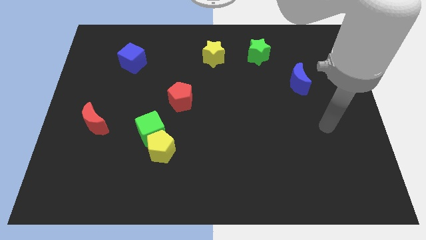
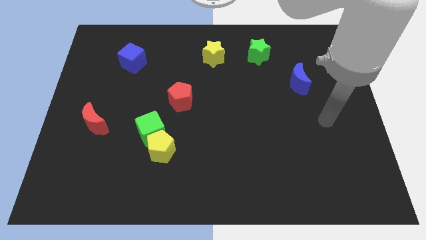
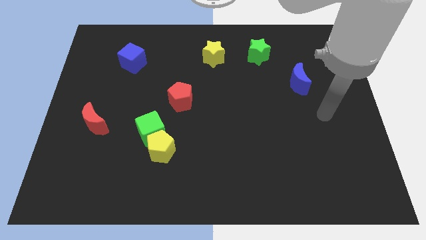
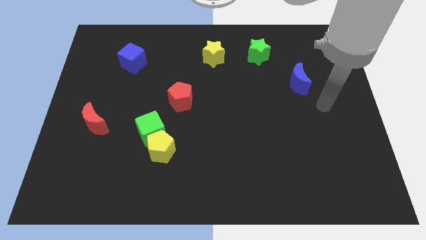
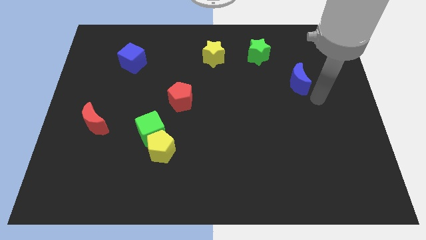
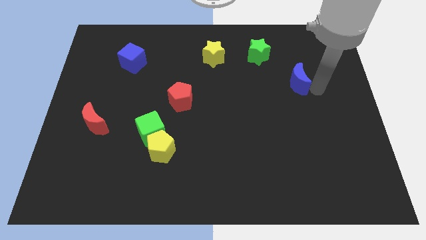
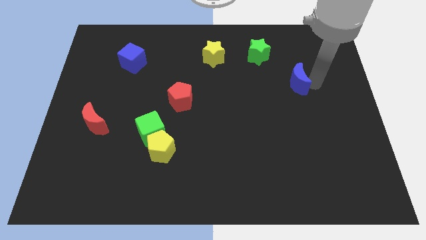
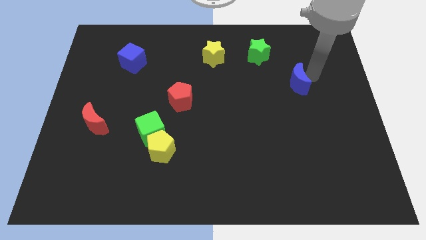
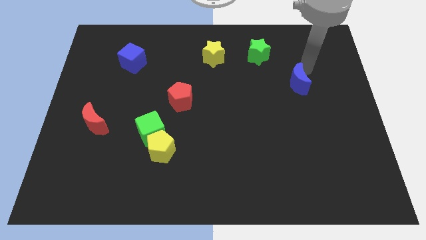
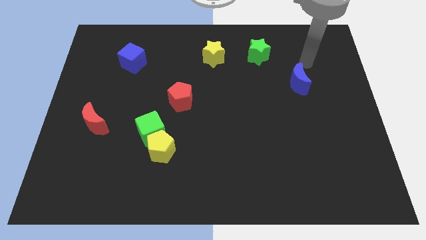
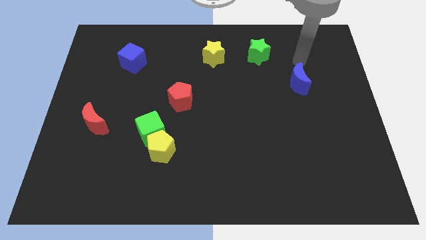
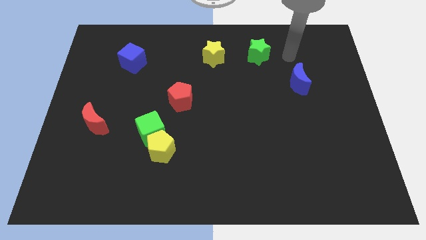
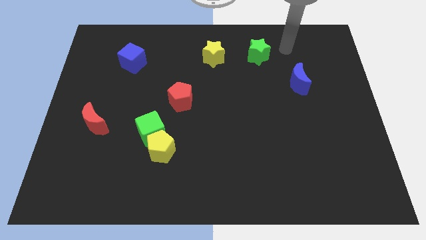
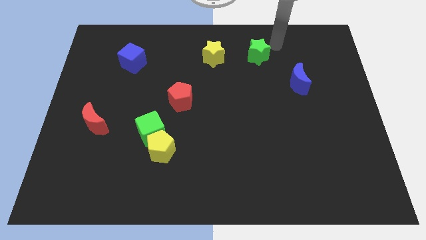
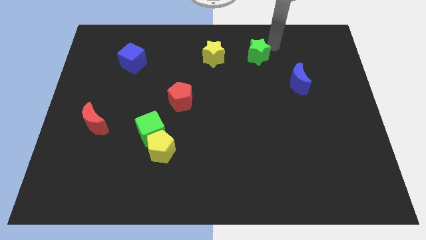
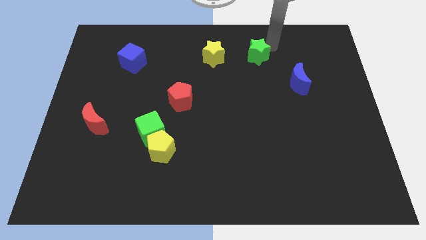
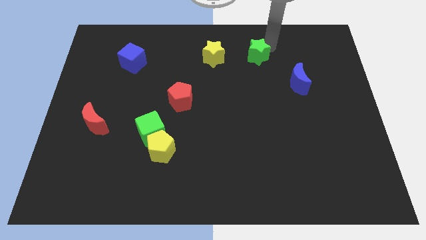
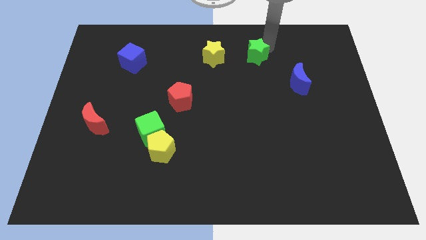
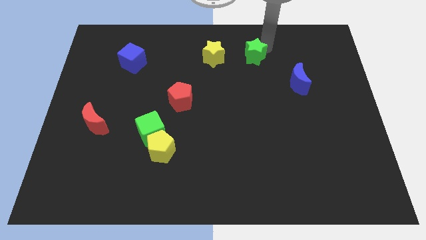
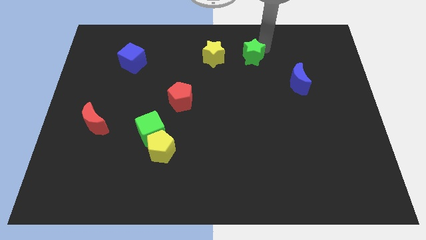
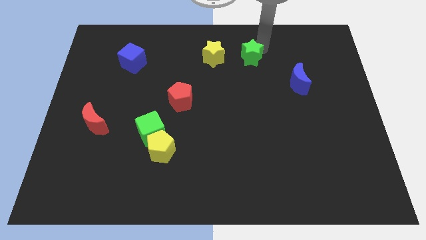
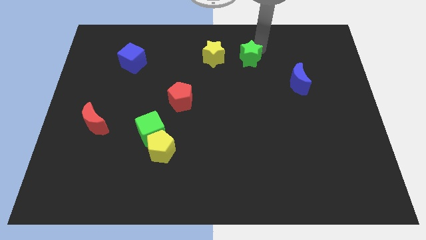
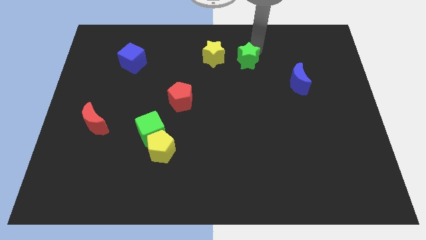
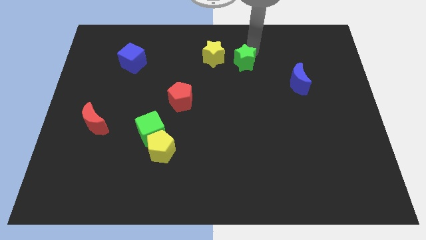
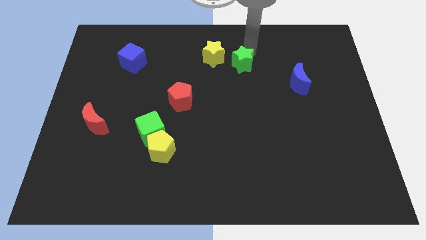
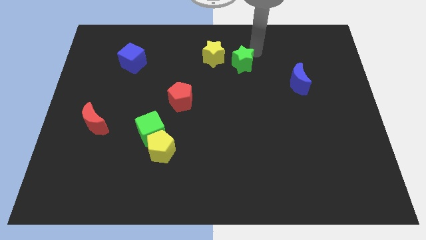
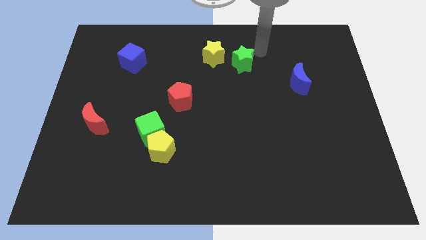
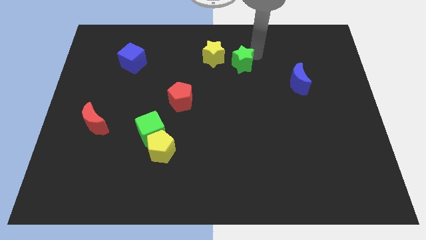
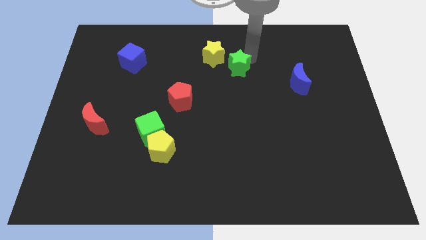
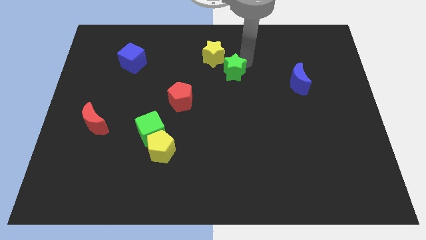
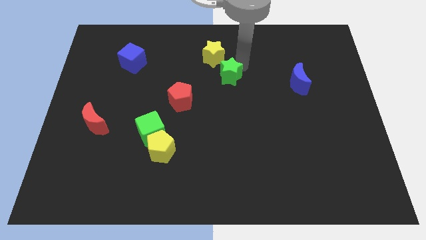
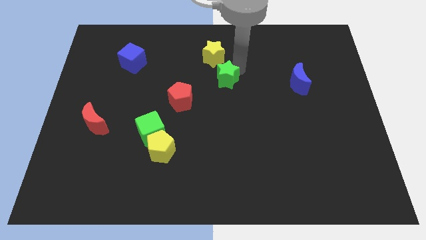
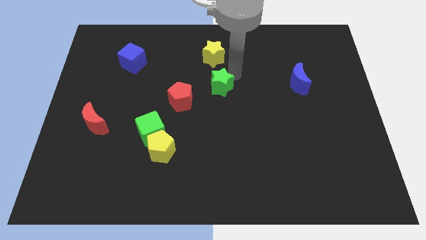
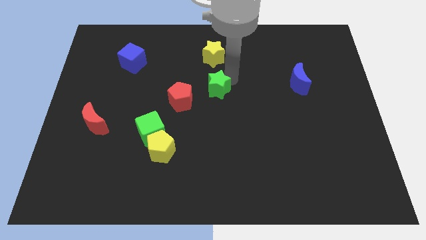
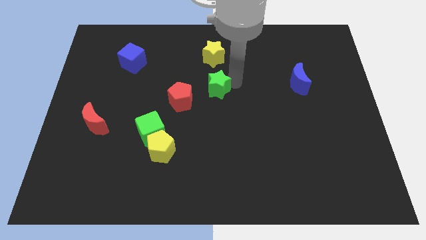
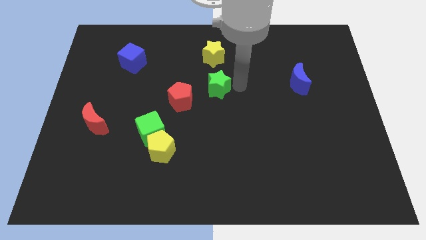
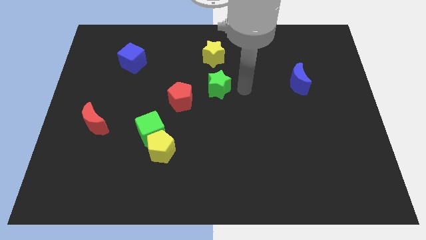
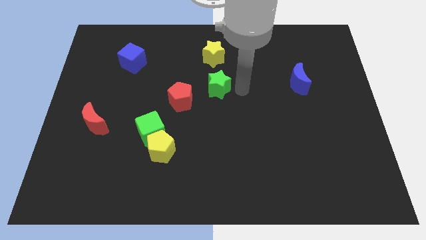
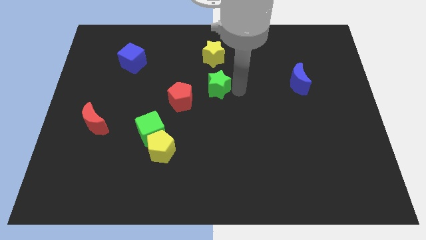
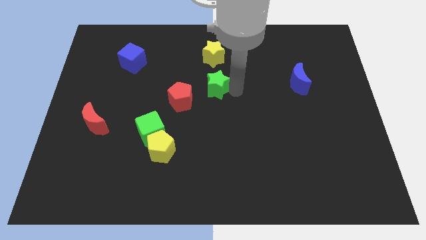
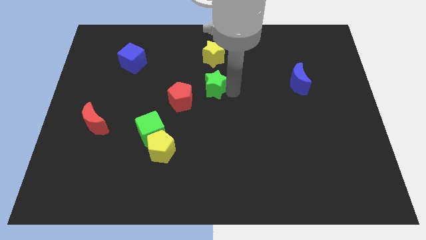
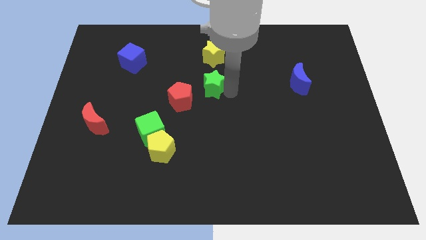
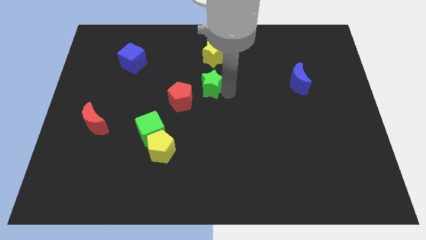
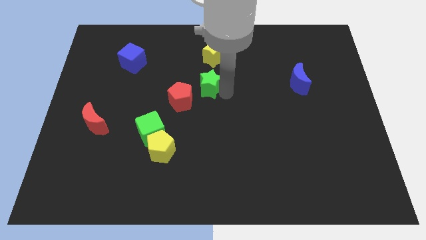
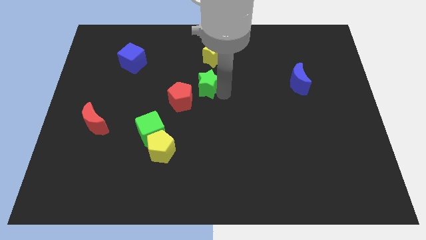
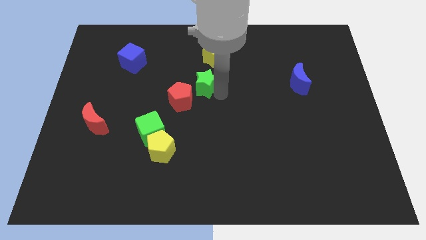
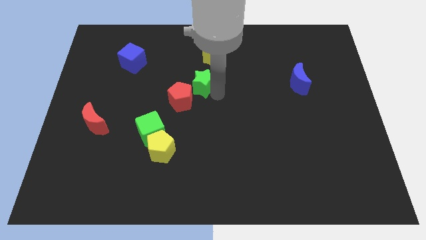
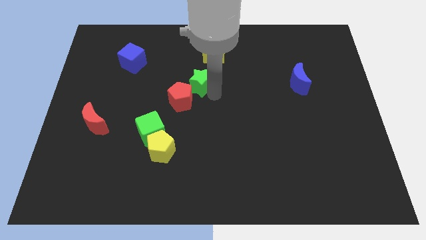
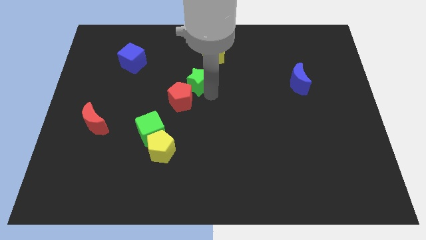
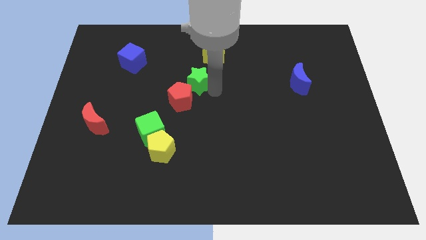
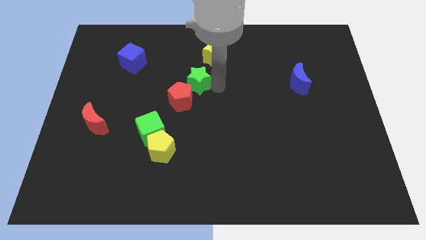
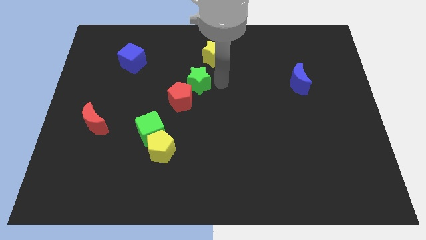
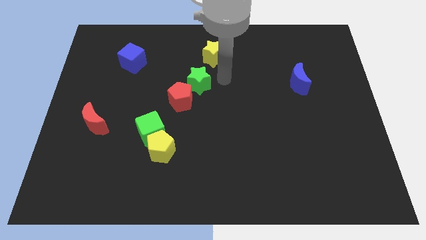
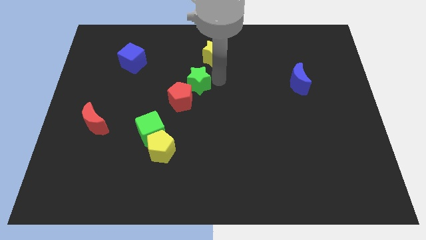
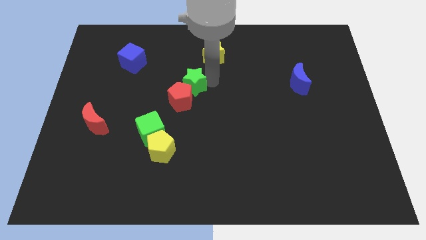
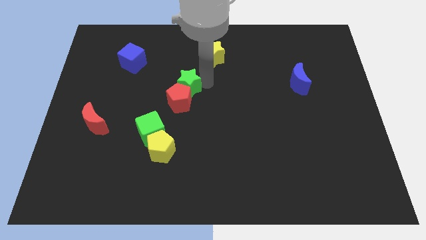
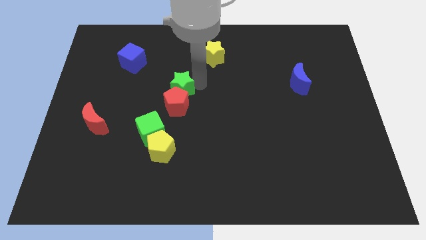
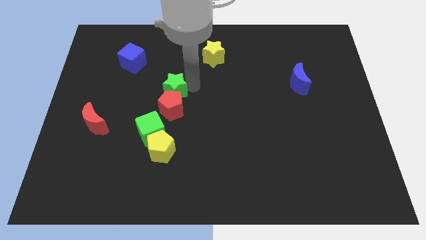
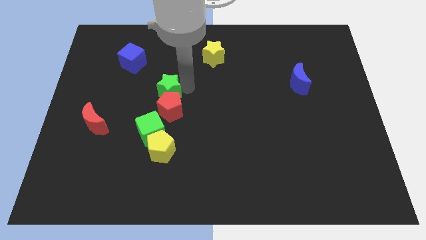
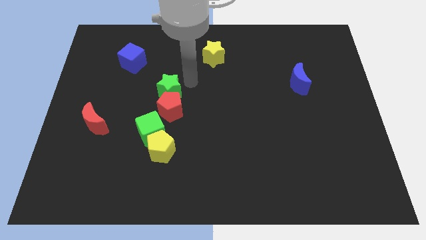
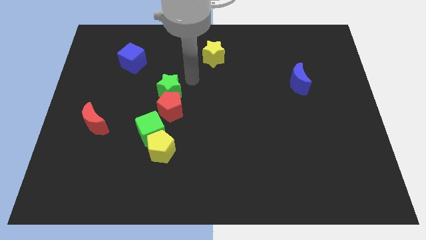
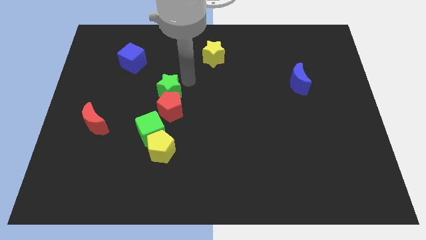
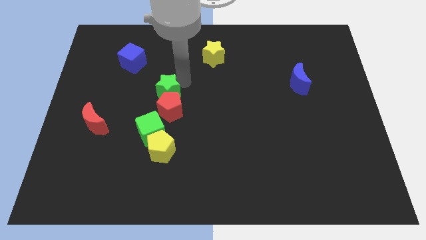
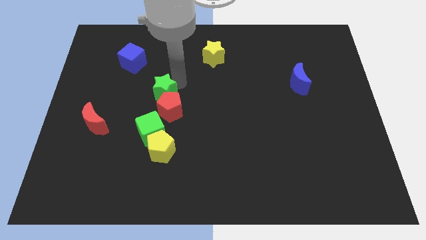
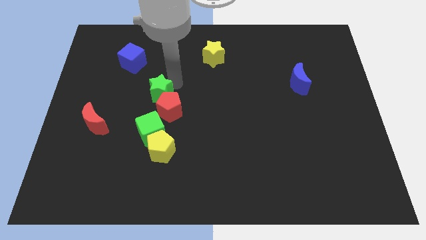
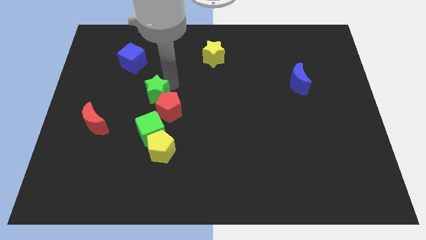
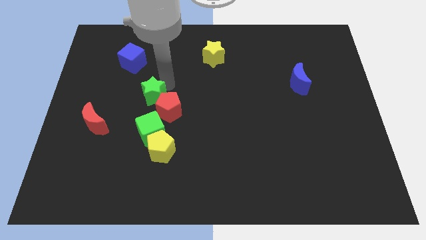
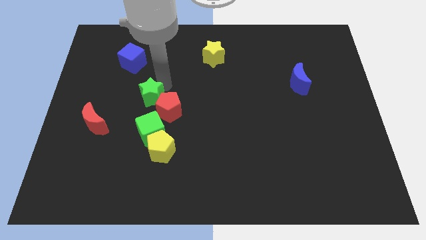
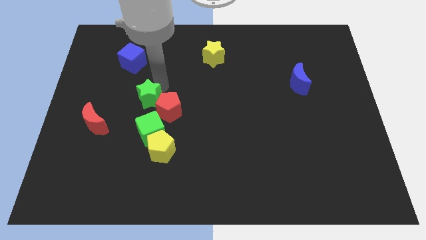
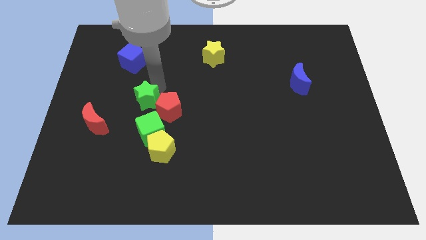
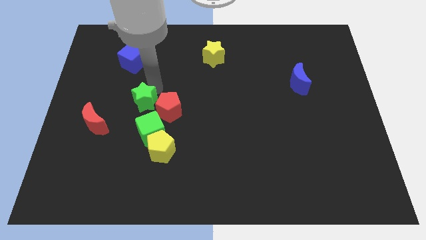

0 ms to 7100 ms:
push the green star to the top left side of the green cube

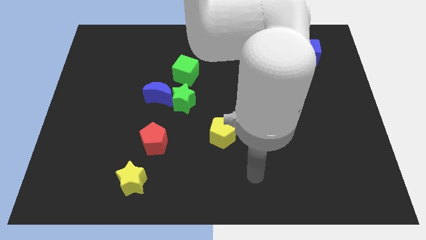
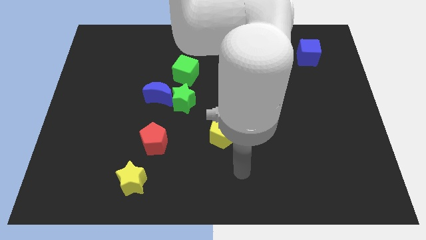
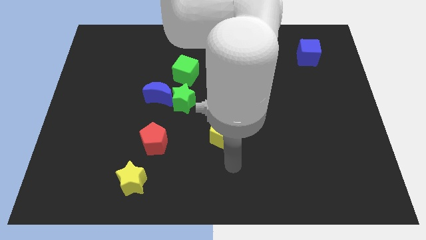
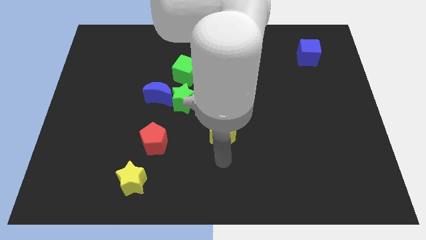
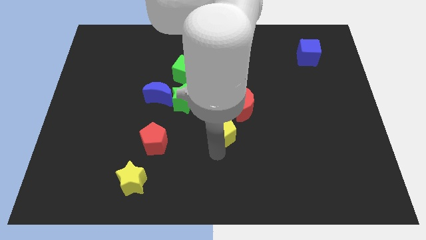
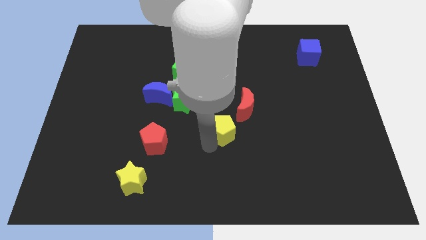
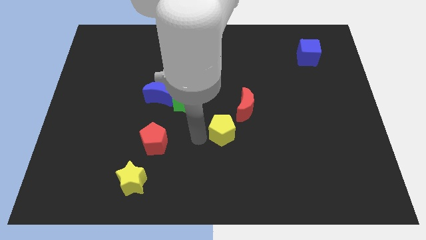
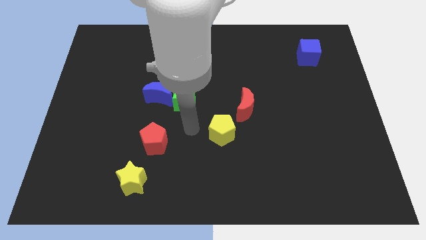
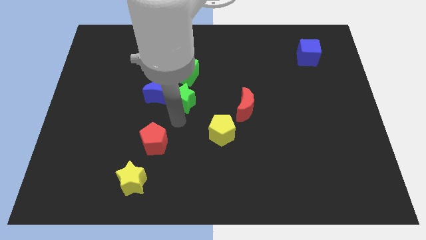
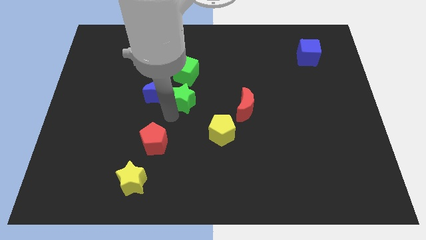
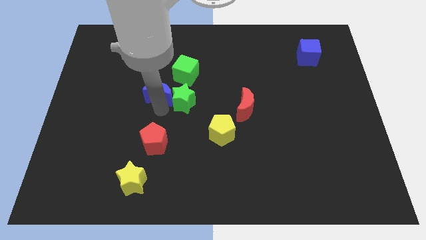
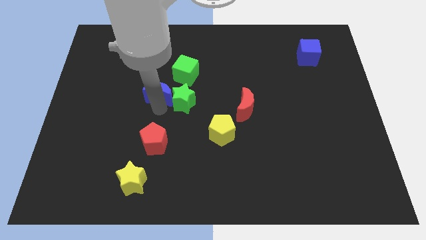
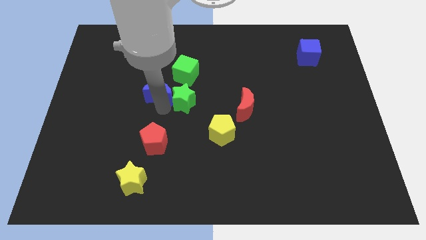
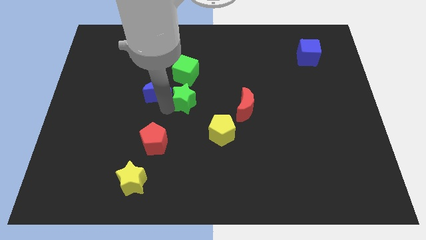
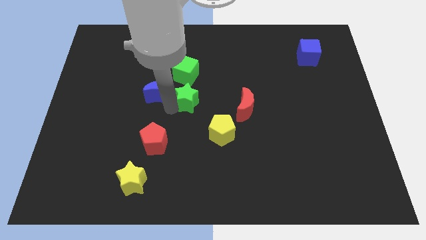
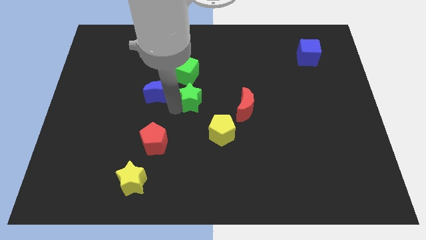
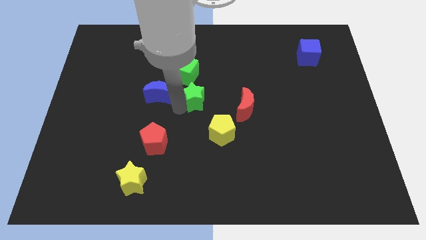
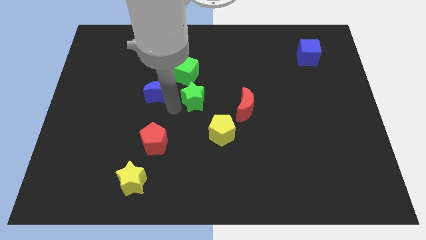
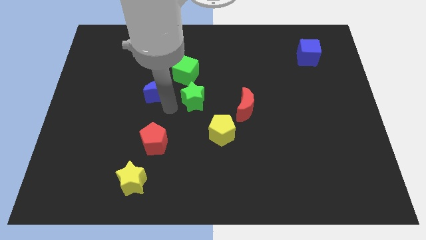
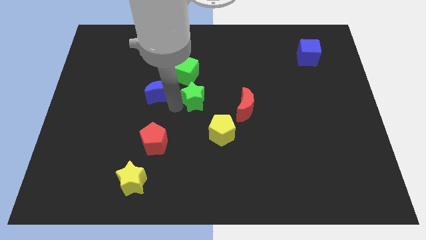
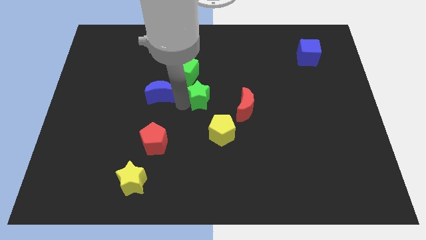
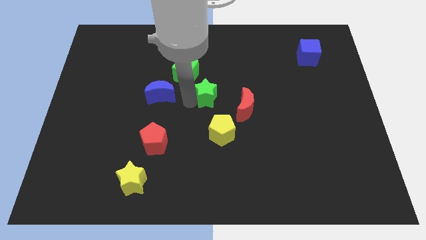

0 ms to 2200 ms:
put the green star diagonally up and to the left of the red moon
